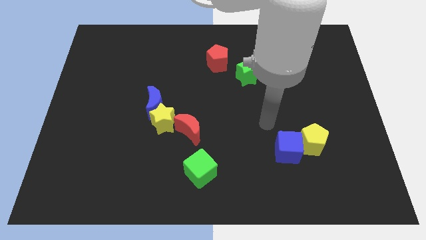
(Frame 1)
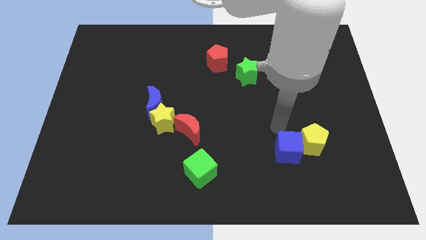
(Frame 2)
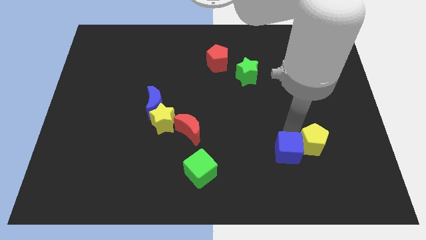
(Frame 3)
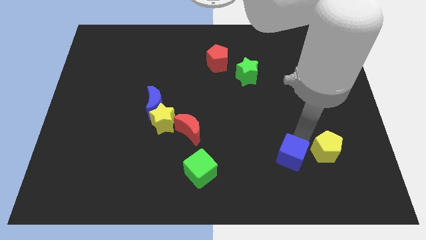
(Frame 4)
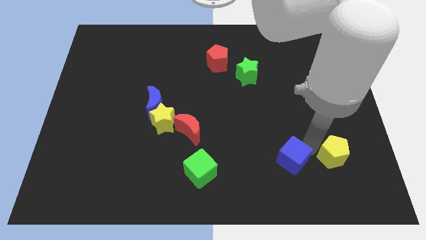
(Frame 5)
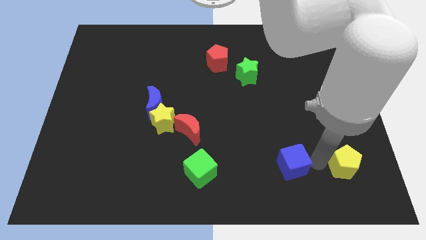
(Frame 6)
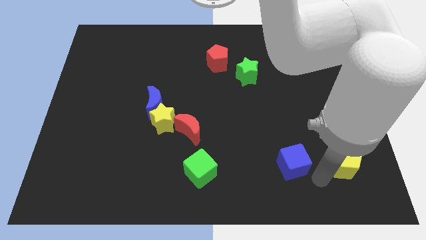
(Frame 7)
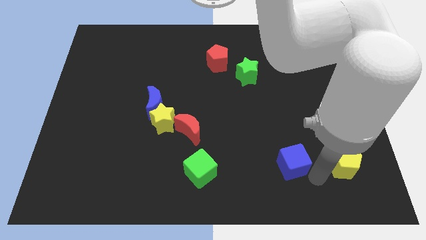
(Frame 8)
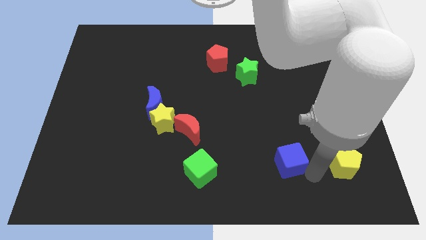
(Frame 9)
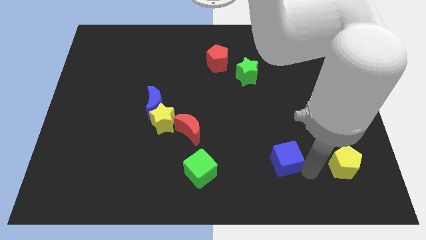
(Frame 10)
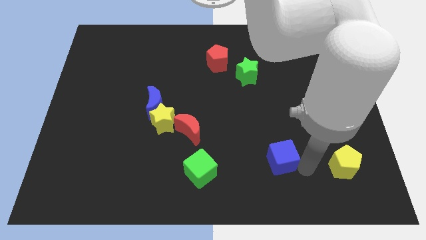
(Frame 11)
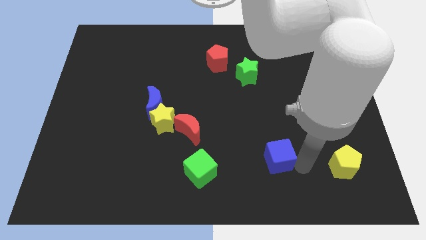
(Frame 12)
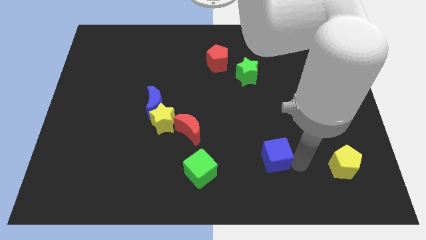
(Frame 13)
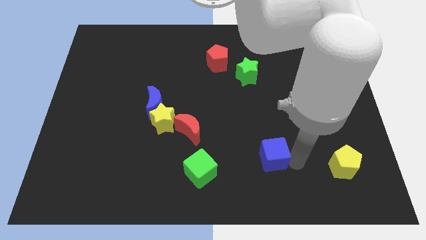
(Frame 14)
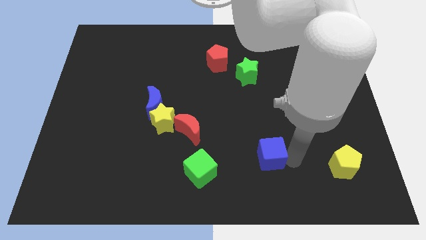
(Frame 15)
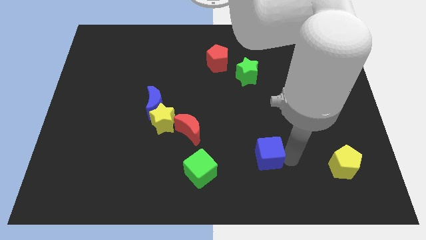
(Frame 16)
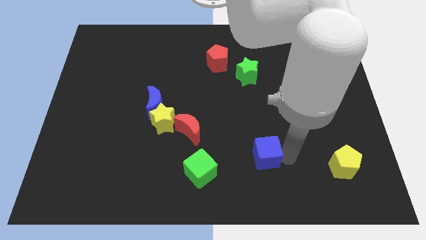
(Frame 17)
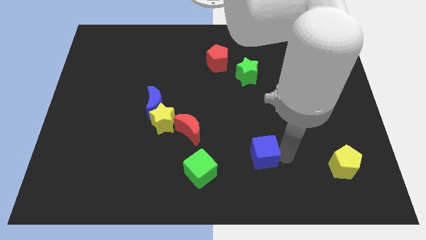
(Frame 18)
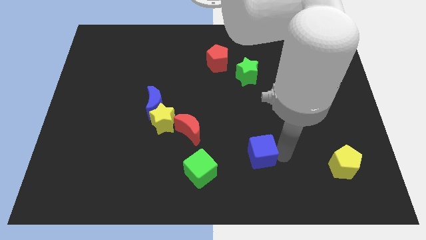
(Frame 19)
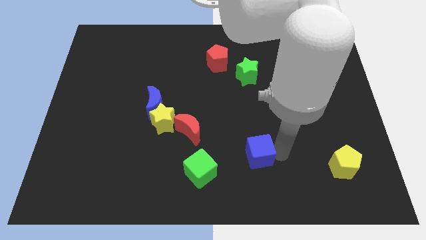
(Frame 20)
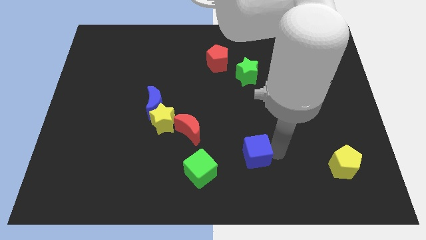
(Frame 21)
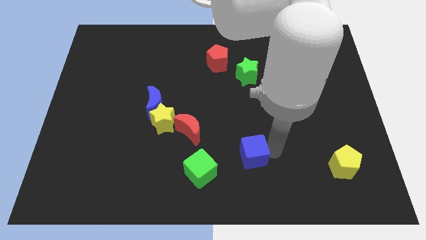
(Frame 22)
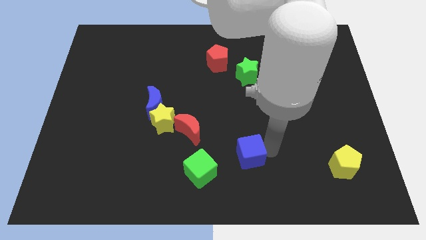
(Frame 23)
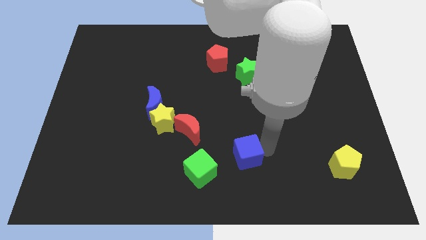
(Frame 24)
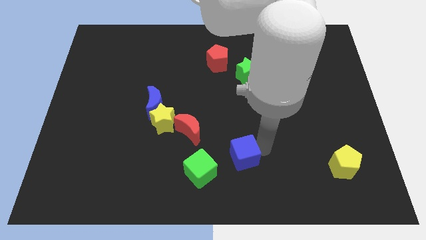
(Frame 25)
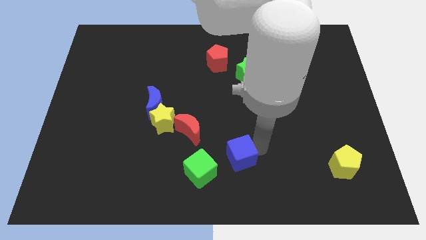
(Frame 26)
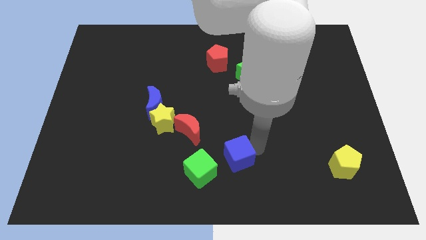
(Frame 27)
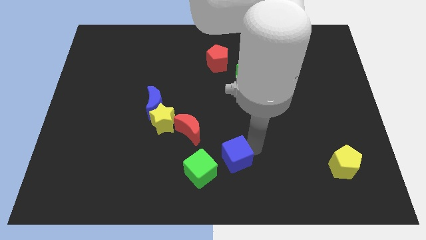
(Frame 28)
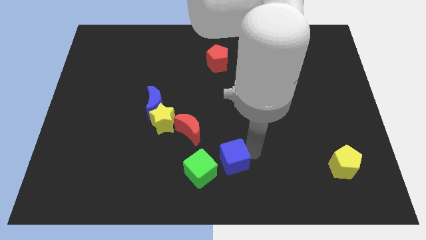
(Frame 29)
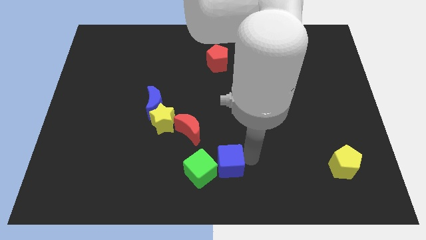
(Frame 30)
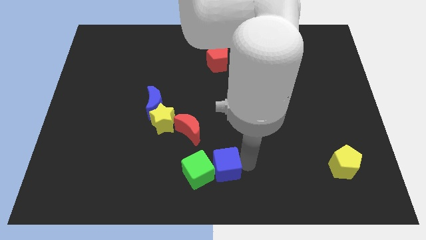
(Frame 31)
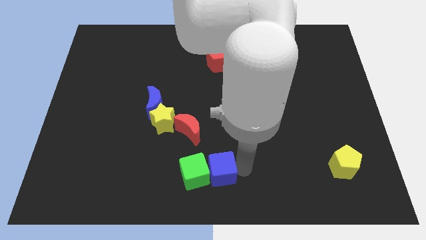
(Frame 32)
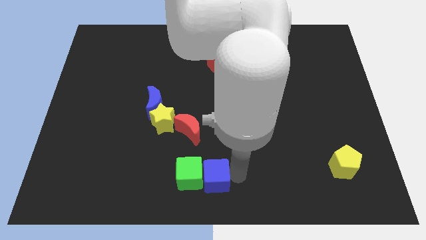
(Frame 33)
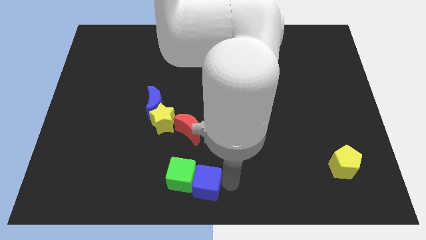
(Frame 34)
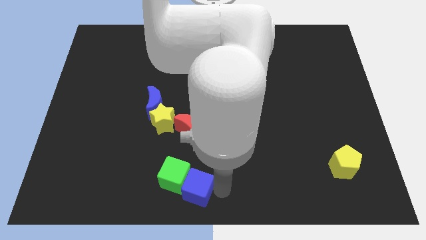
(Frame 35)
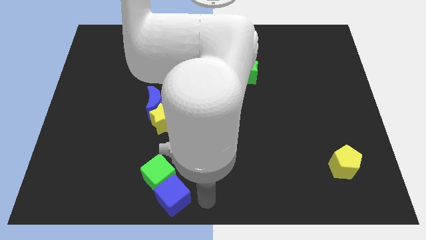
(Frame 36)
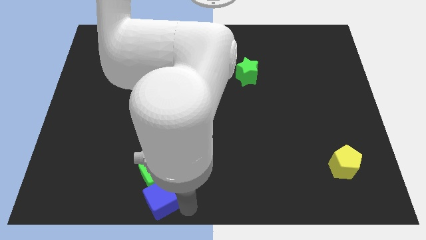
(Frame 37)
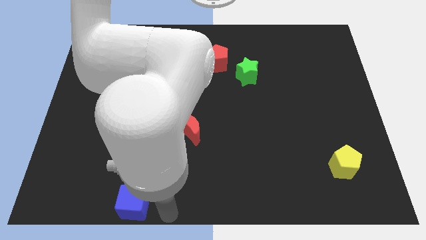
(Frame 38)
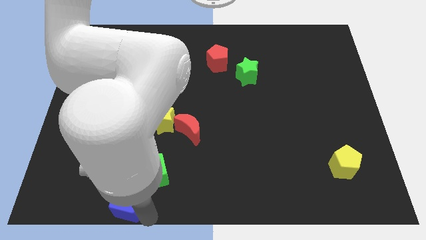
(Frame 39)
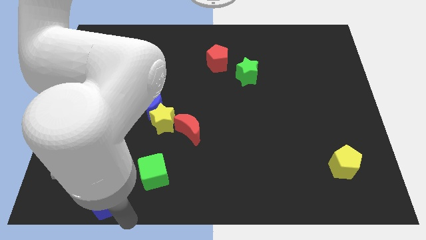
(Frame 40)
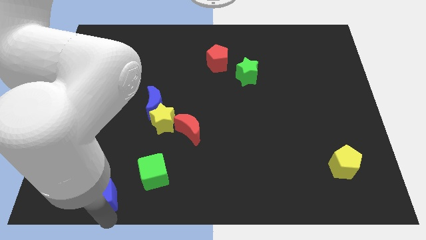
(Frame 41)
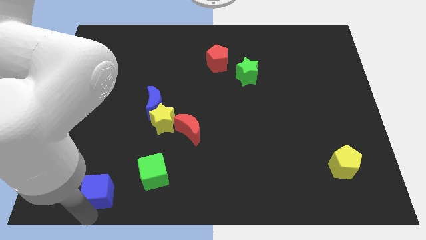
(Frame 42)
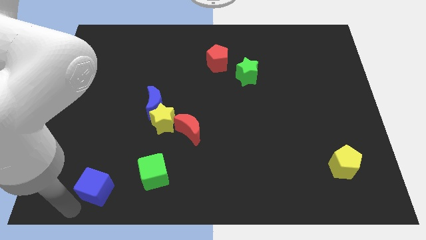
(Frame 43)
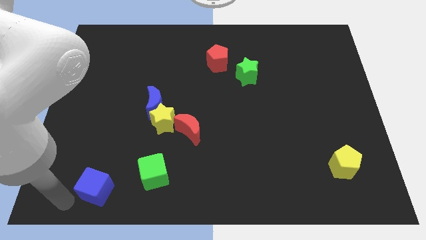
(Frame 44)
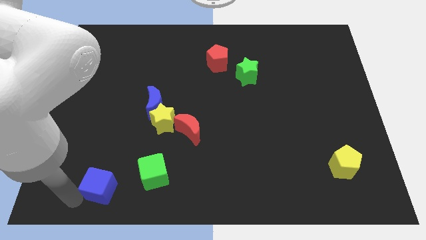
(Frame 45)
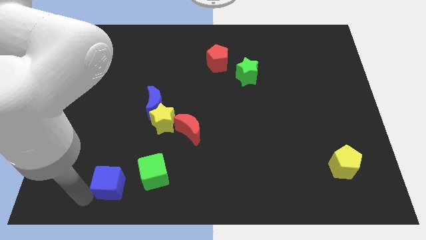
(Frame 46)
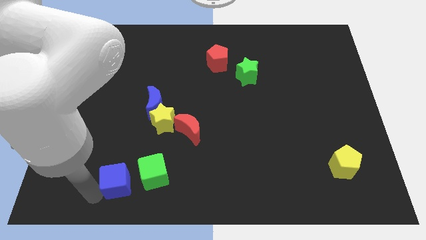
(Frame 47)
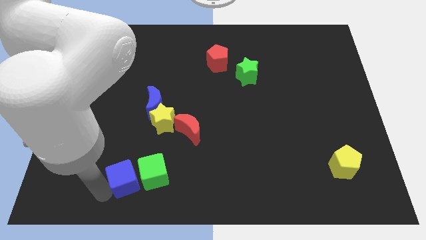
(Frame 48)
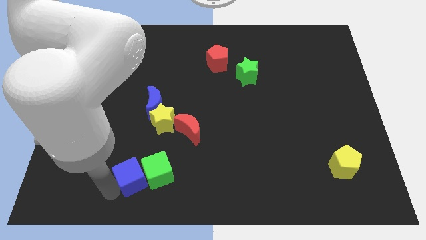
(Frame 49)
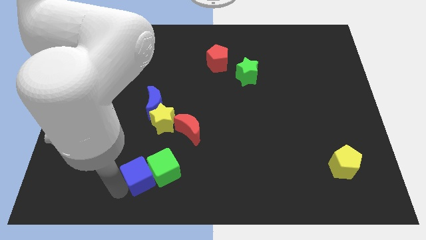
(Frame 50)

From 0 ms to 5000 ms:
move the blue cube to the bottom side of the yellow star

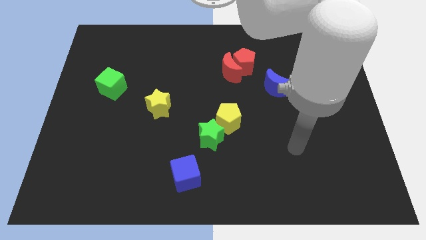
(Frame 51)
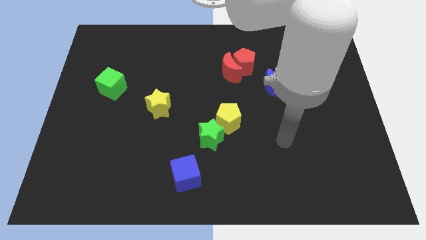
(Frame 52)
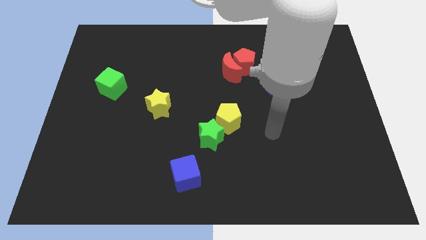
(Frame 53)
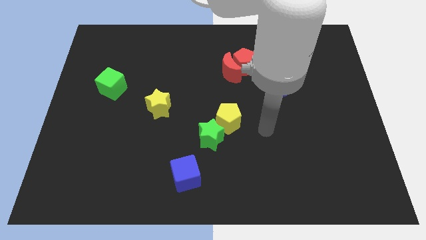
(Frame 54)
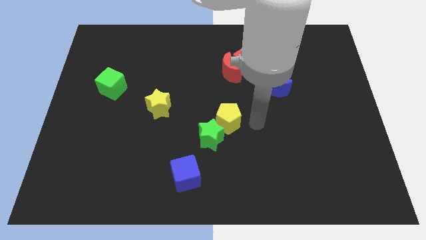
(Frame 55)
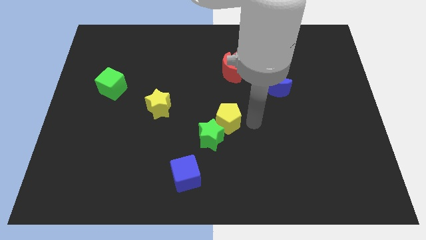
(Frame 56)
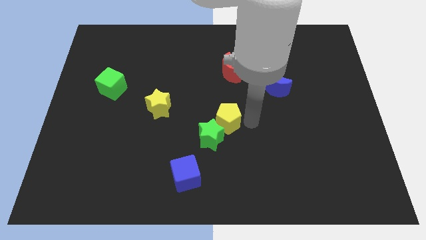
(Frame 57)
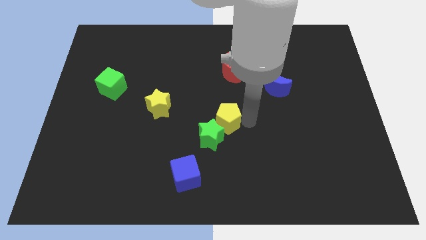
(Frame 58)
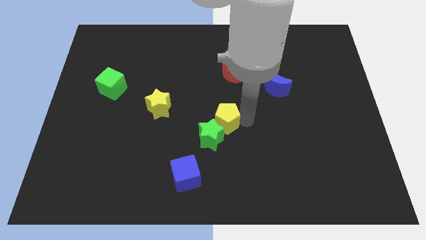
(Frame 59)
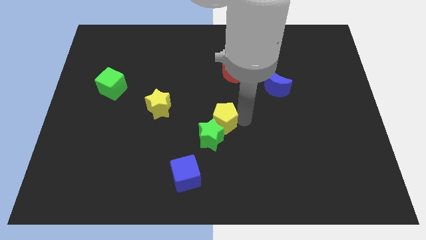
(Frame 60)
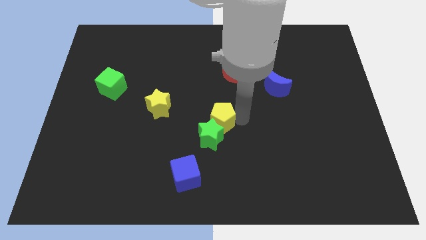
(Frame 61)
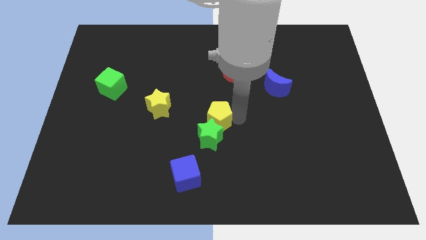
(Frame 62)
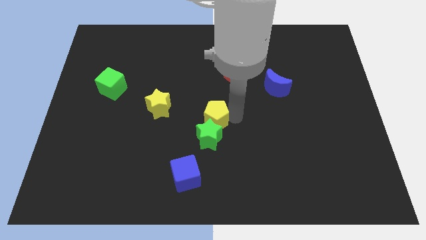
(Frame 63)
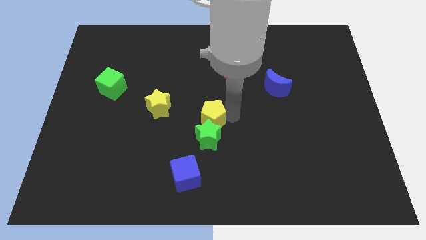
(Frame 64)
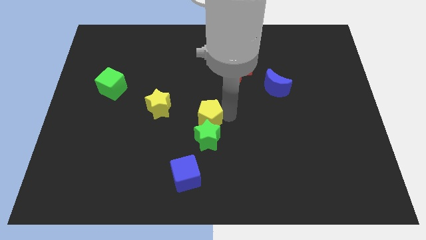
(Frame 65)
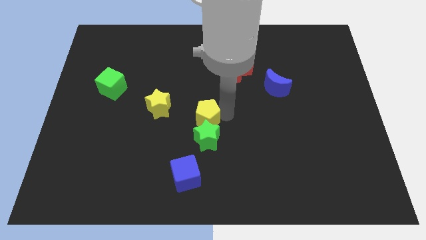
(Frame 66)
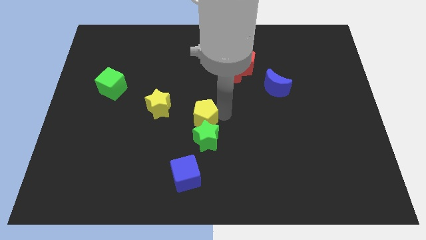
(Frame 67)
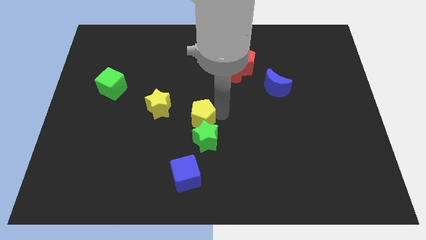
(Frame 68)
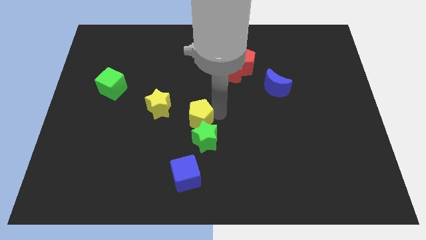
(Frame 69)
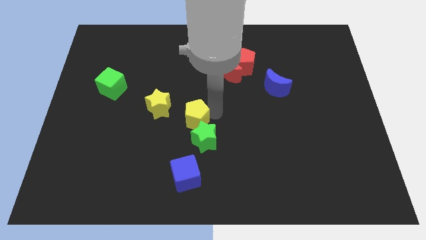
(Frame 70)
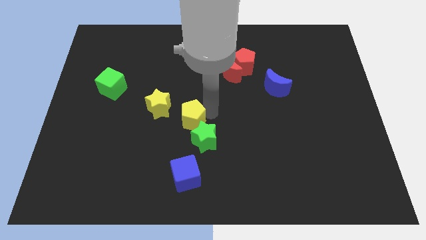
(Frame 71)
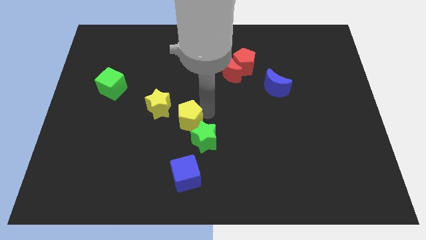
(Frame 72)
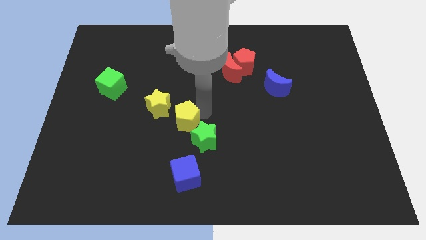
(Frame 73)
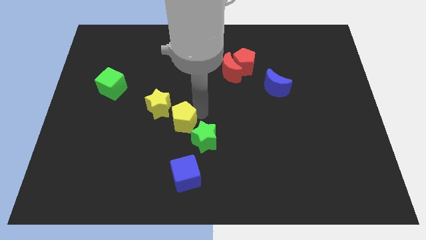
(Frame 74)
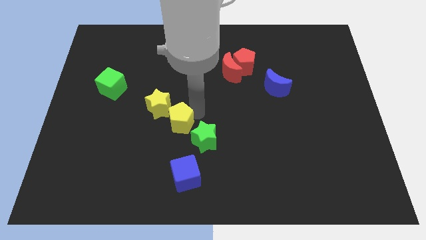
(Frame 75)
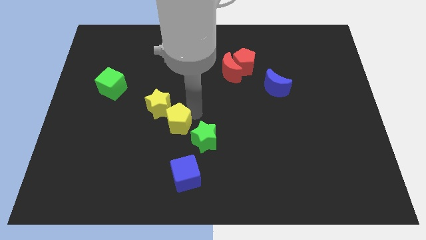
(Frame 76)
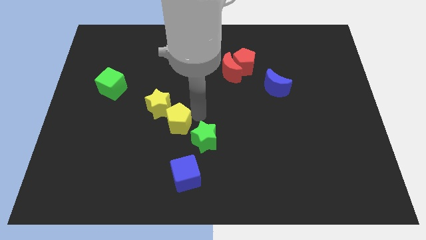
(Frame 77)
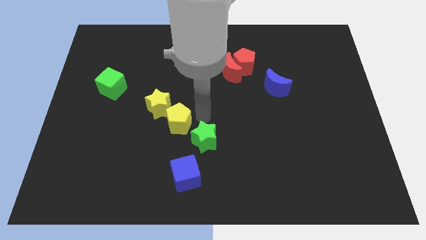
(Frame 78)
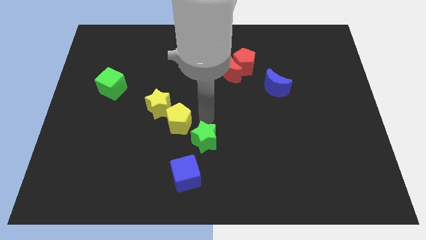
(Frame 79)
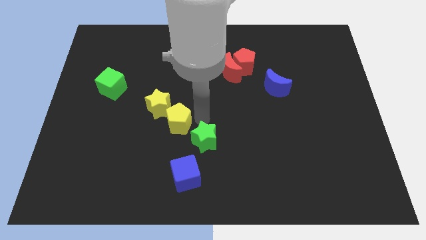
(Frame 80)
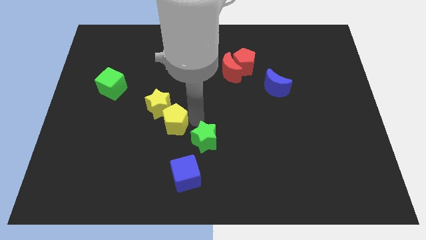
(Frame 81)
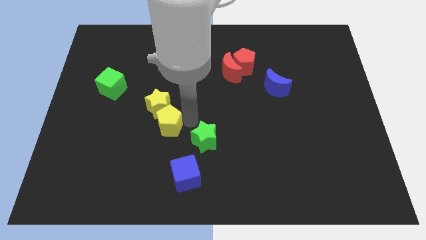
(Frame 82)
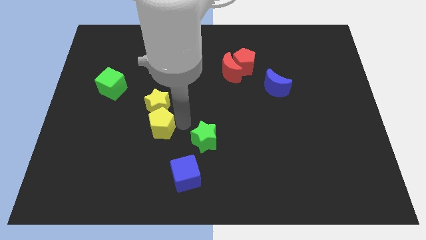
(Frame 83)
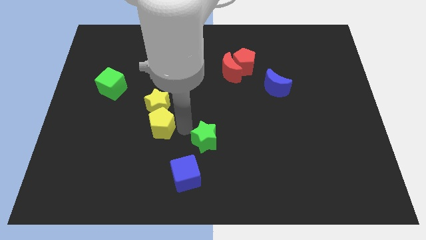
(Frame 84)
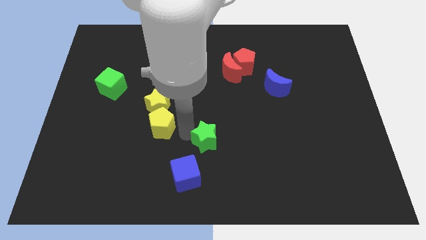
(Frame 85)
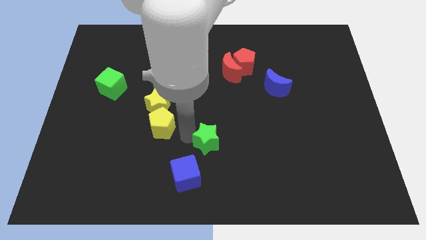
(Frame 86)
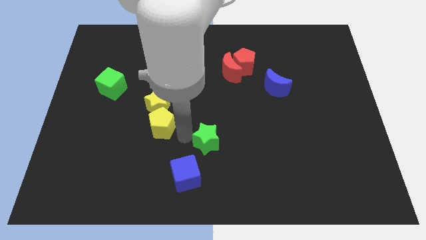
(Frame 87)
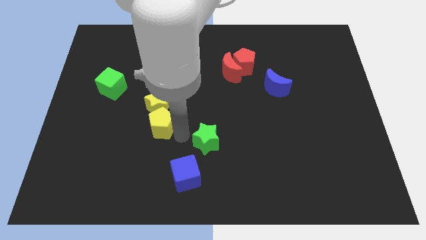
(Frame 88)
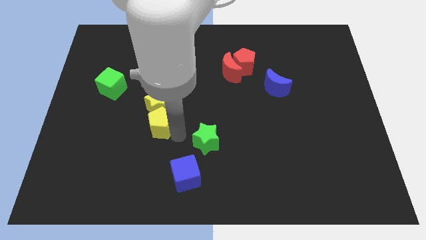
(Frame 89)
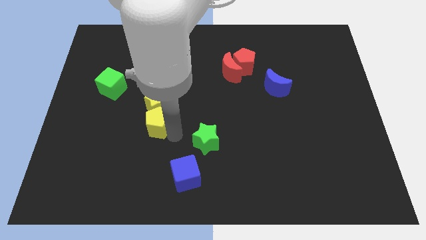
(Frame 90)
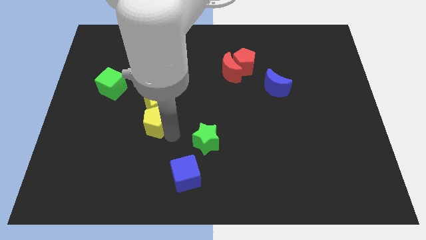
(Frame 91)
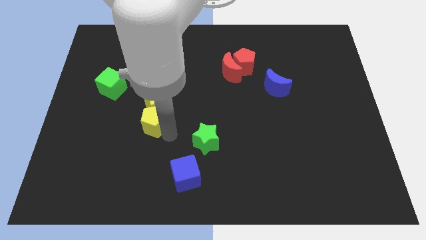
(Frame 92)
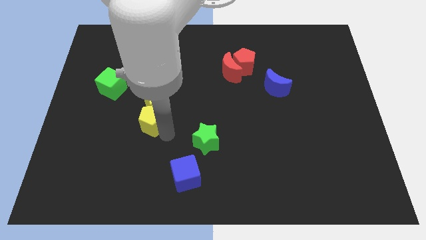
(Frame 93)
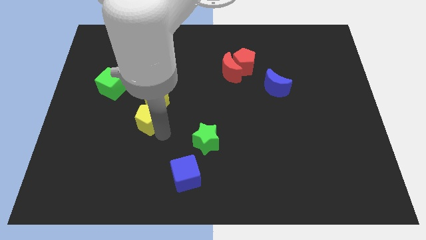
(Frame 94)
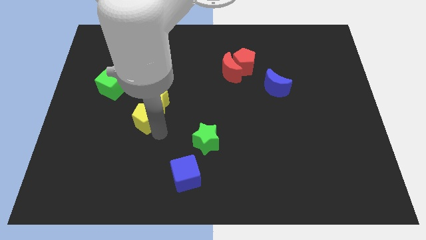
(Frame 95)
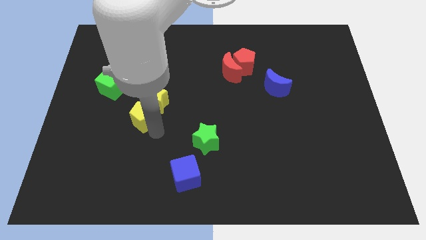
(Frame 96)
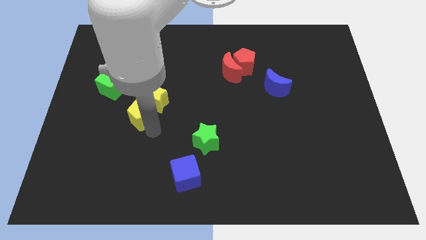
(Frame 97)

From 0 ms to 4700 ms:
push the yellow pentagon to the bottom right side of the green cube
